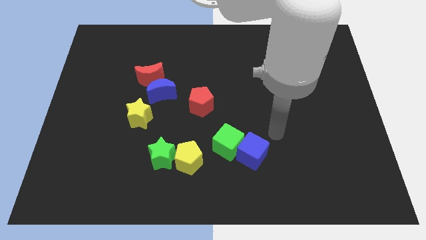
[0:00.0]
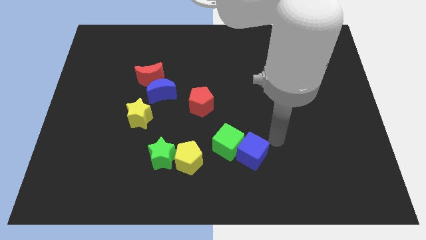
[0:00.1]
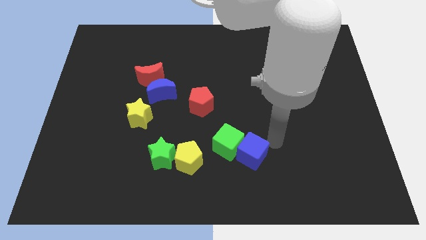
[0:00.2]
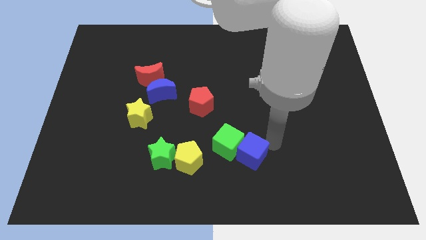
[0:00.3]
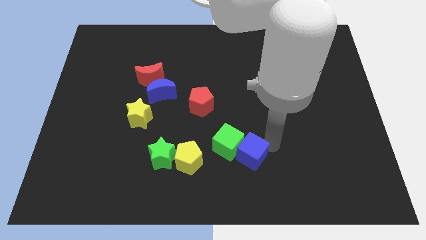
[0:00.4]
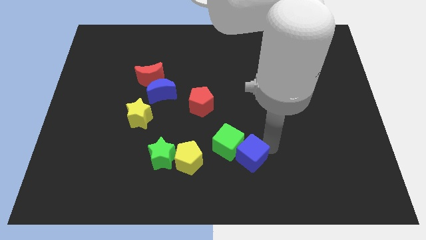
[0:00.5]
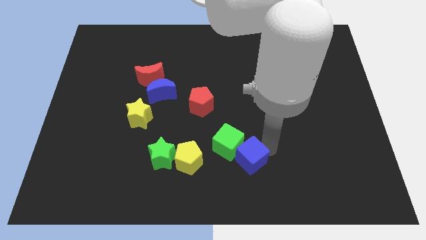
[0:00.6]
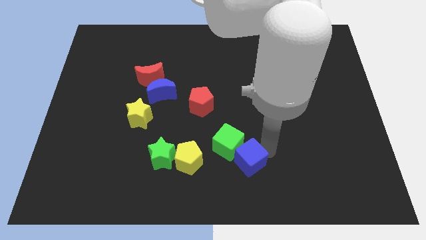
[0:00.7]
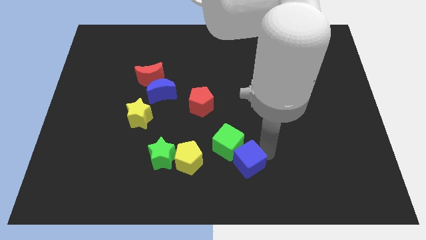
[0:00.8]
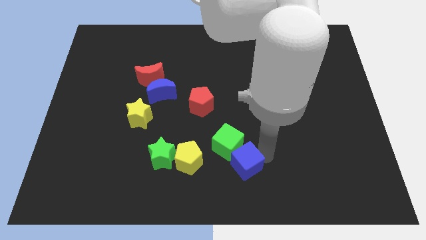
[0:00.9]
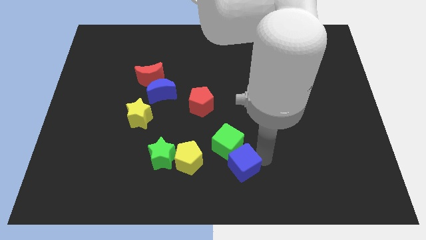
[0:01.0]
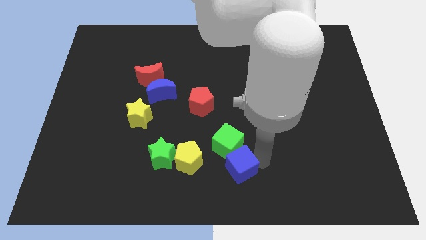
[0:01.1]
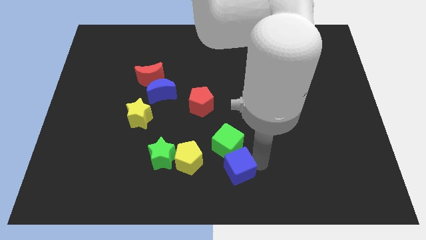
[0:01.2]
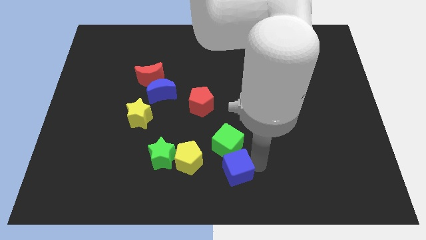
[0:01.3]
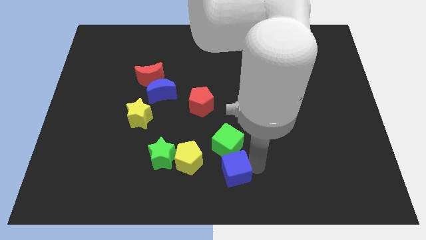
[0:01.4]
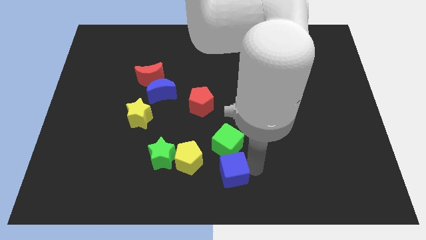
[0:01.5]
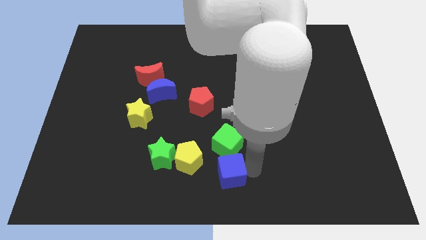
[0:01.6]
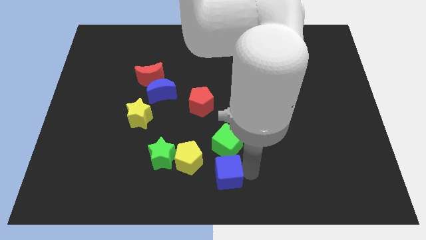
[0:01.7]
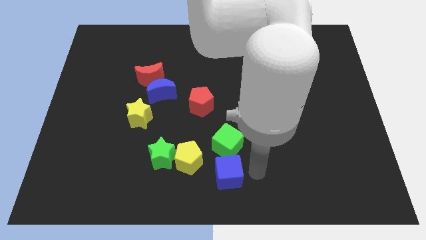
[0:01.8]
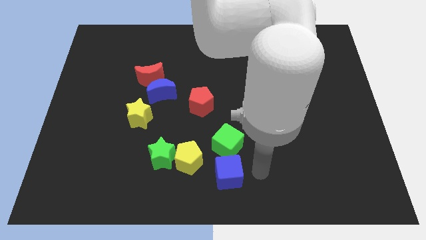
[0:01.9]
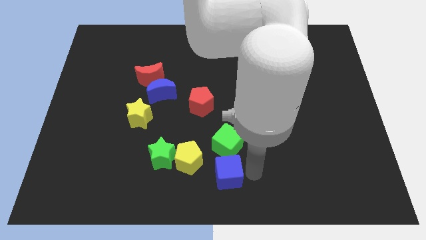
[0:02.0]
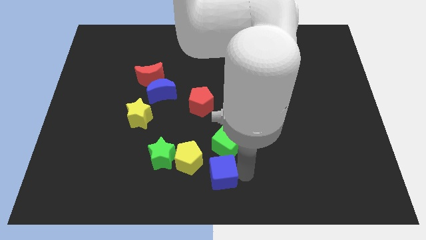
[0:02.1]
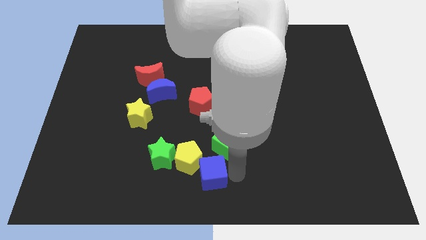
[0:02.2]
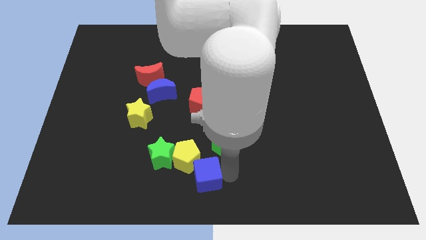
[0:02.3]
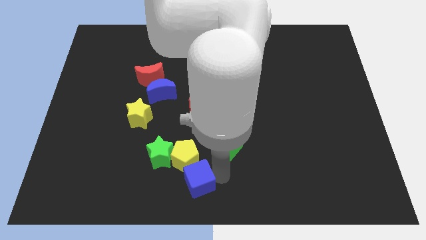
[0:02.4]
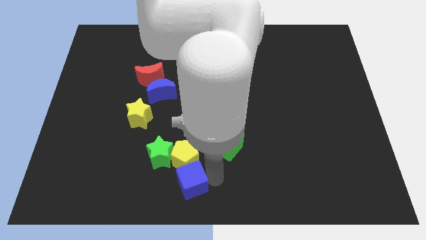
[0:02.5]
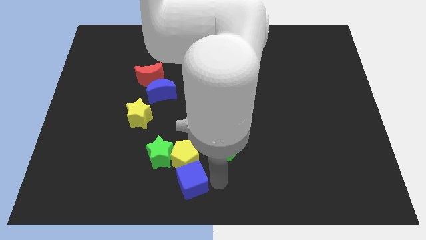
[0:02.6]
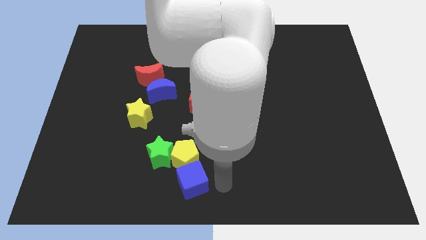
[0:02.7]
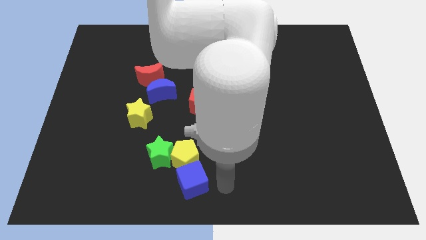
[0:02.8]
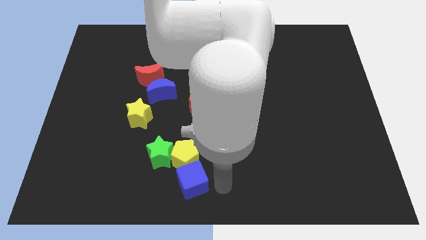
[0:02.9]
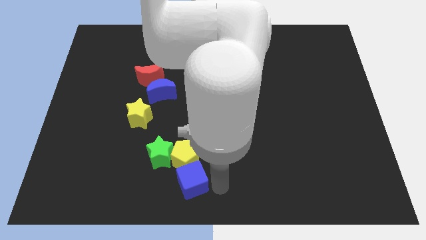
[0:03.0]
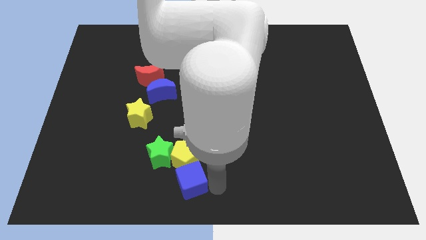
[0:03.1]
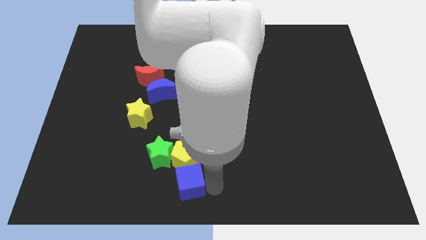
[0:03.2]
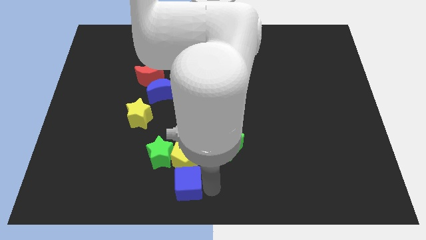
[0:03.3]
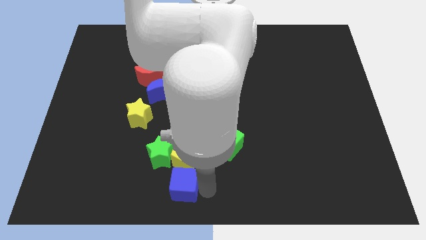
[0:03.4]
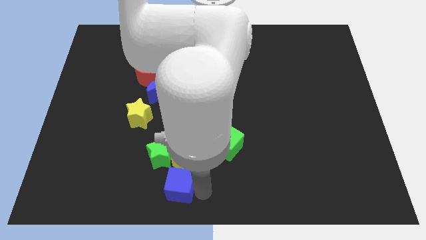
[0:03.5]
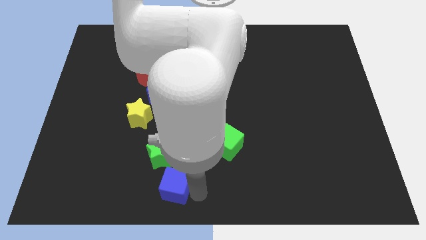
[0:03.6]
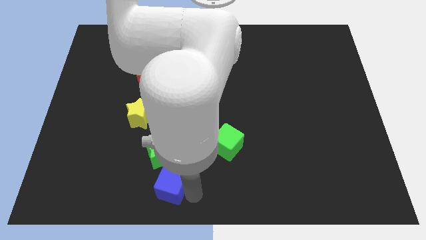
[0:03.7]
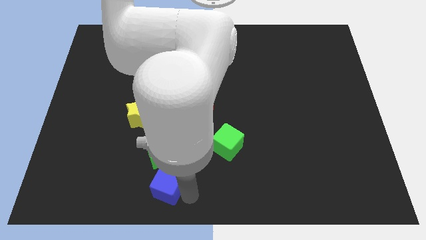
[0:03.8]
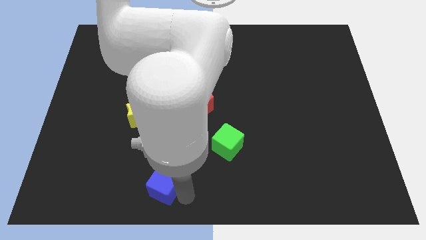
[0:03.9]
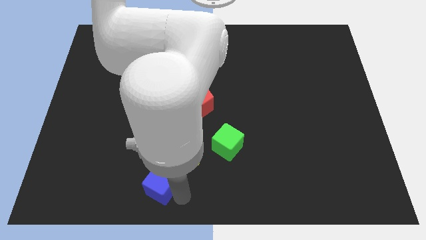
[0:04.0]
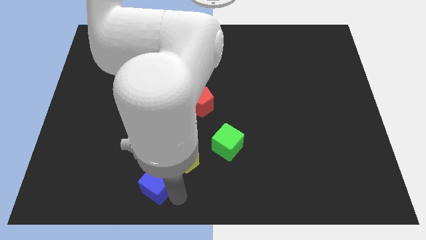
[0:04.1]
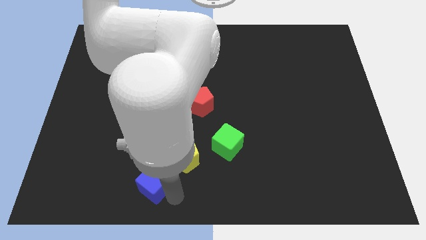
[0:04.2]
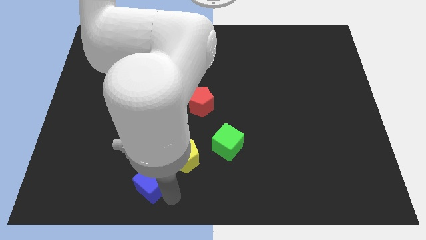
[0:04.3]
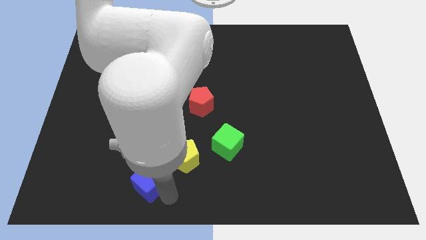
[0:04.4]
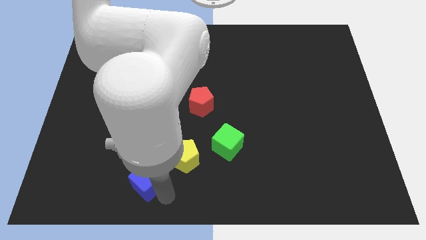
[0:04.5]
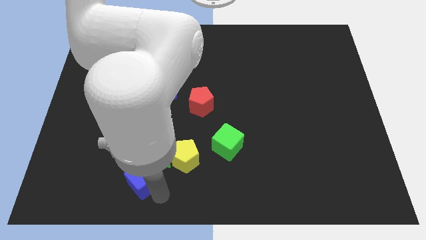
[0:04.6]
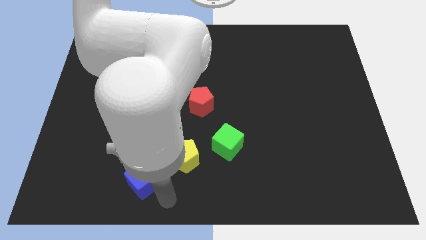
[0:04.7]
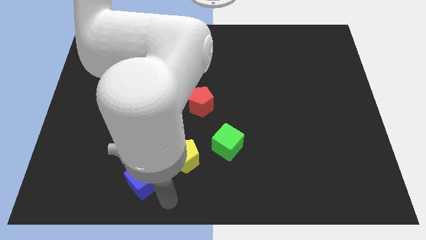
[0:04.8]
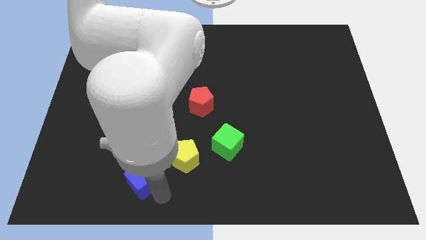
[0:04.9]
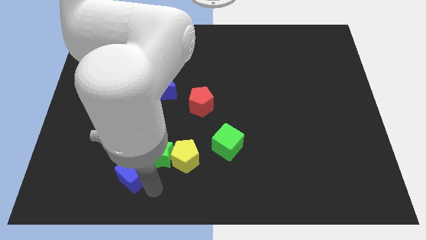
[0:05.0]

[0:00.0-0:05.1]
push the blue cube left of the green star

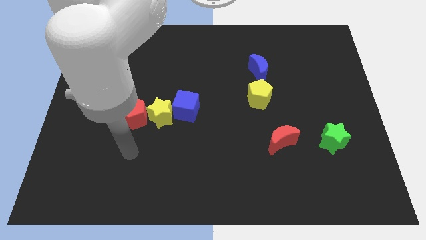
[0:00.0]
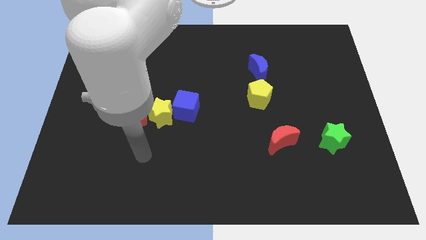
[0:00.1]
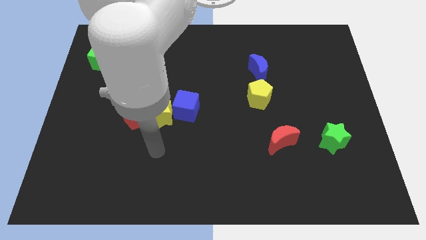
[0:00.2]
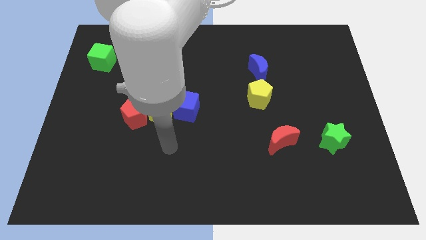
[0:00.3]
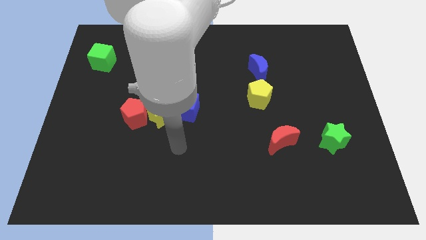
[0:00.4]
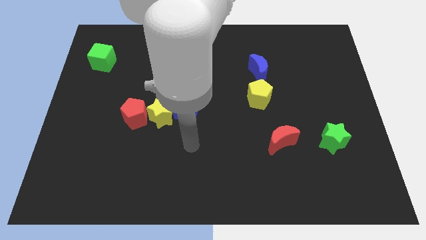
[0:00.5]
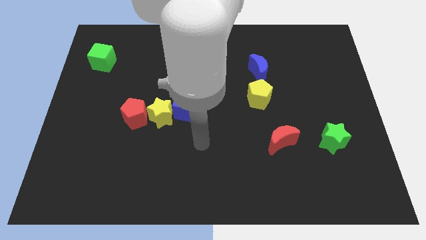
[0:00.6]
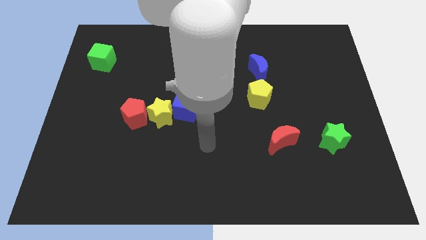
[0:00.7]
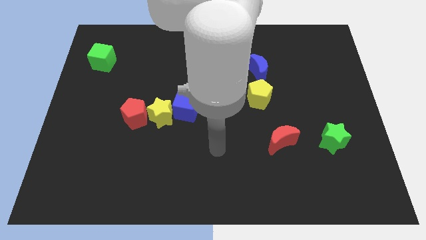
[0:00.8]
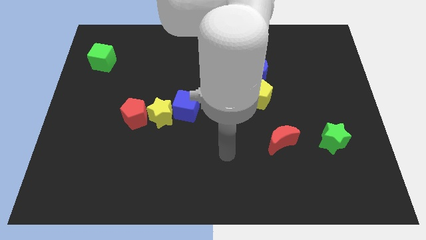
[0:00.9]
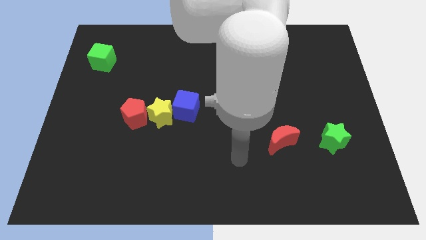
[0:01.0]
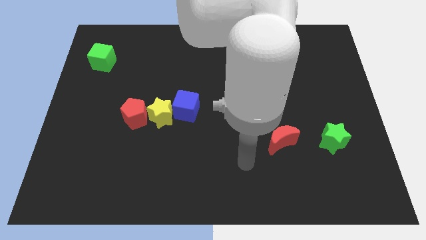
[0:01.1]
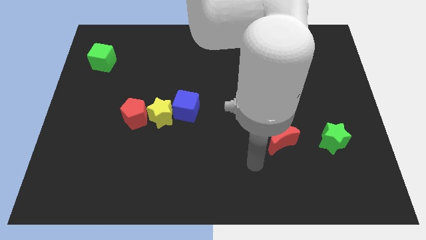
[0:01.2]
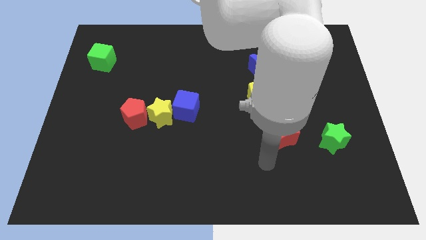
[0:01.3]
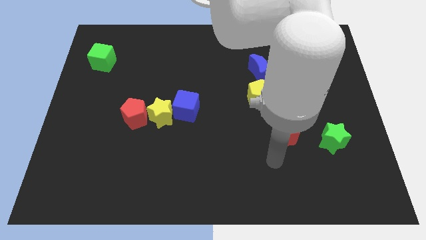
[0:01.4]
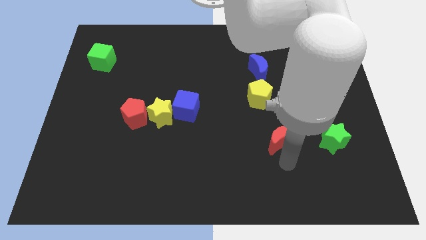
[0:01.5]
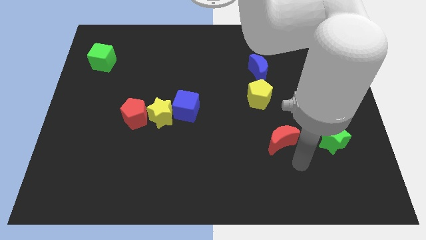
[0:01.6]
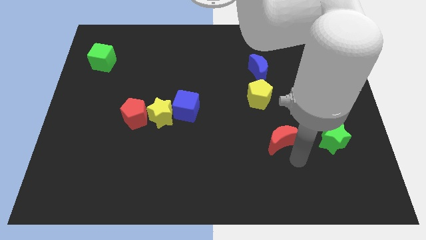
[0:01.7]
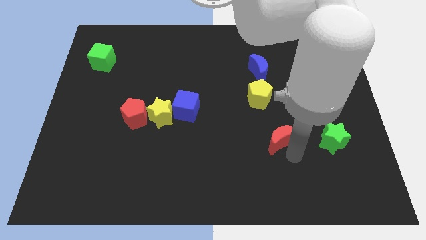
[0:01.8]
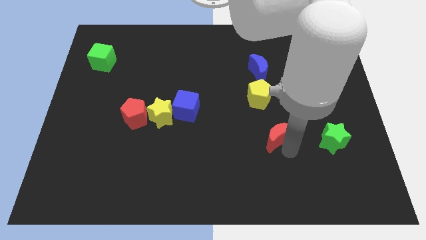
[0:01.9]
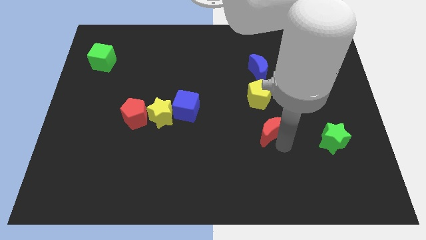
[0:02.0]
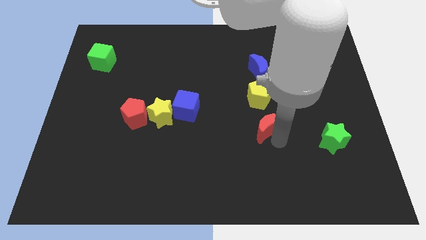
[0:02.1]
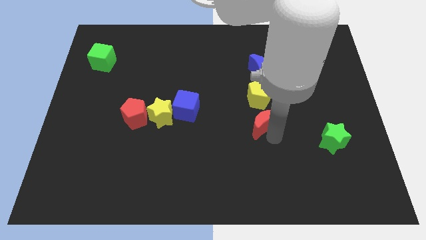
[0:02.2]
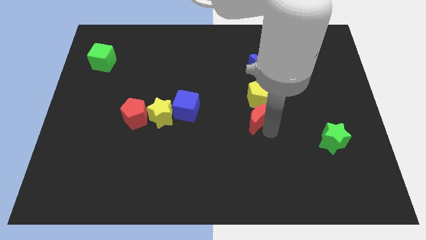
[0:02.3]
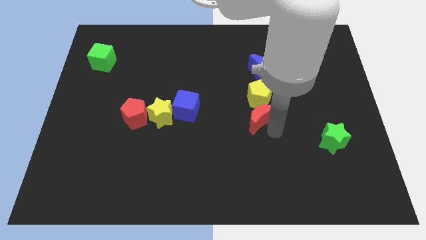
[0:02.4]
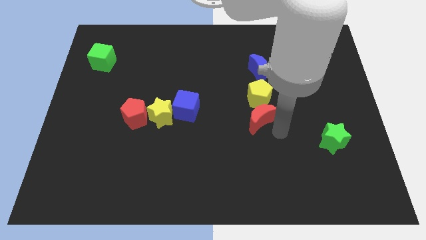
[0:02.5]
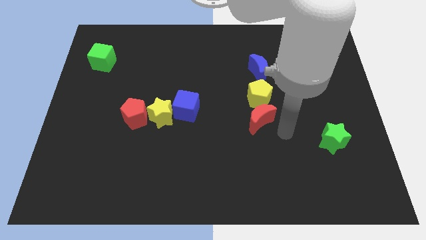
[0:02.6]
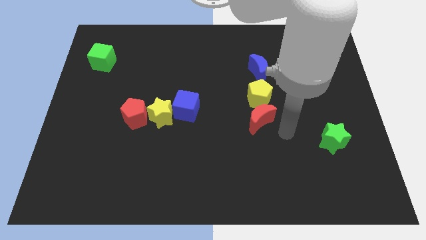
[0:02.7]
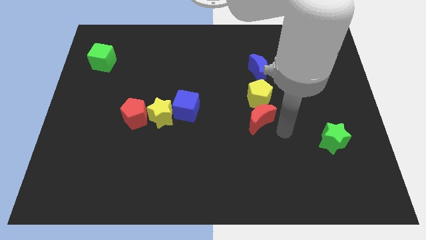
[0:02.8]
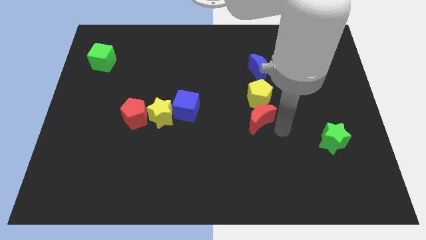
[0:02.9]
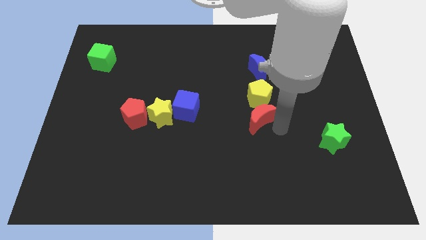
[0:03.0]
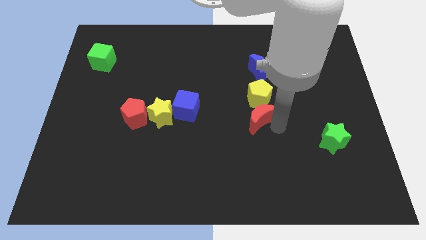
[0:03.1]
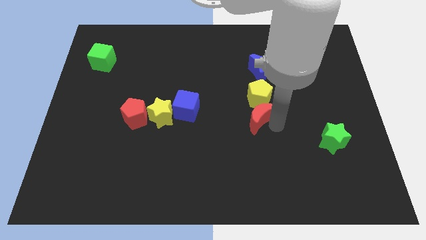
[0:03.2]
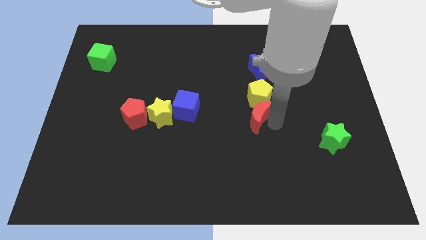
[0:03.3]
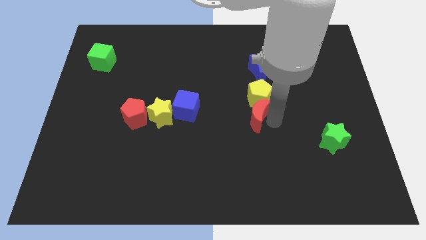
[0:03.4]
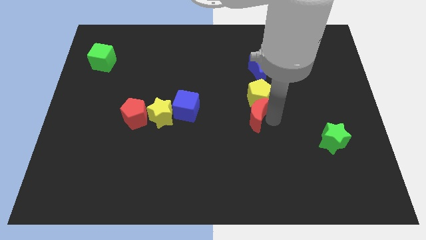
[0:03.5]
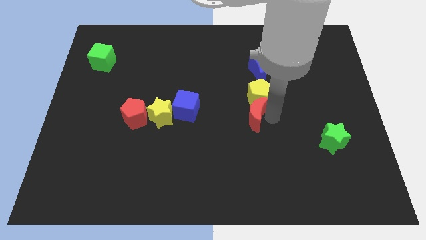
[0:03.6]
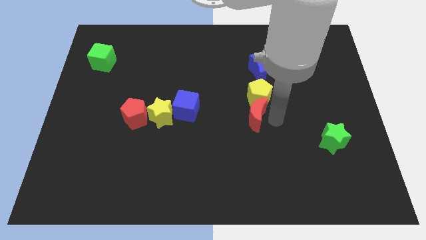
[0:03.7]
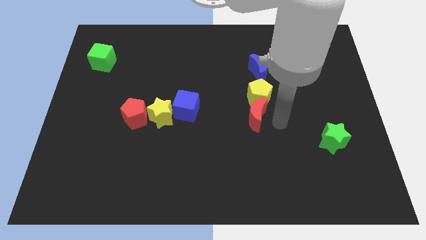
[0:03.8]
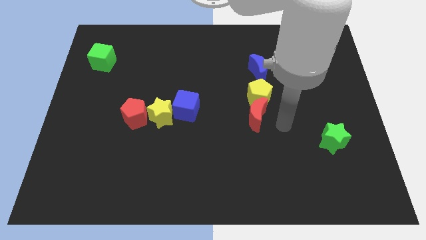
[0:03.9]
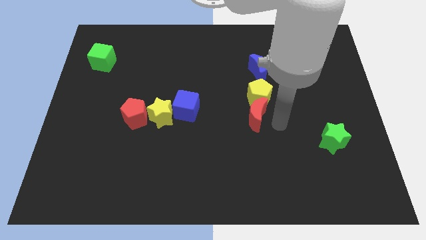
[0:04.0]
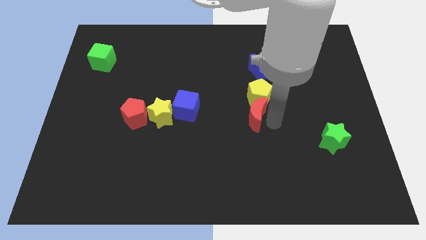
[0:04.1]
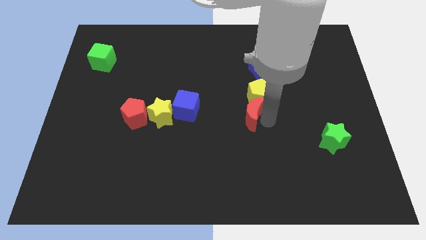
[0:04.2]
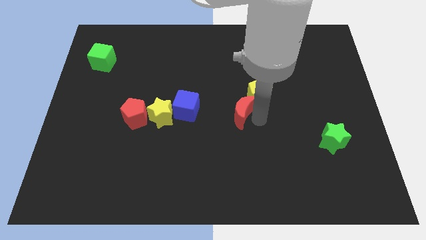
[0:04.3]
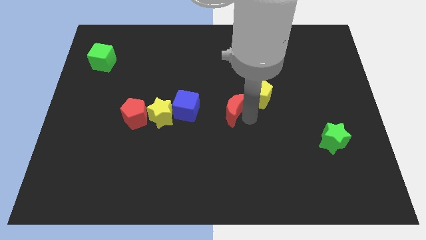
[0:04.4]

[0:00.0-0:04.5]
slide the red moon just left of the yellow pentagon
